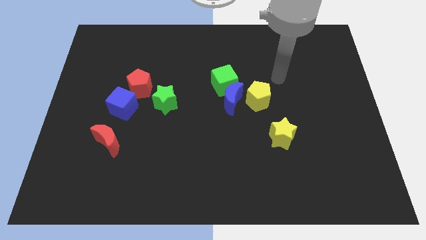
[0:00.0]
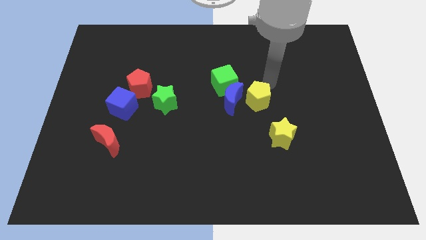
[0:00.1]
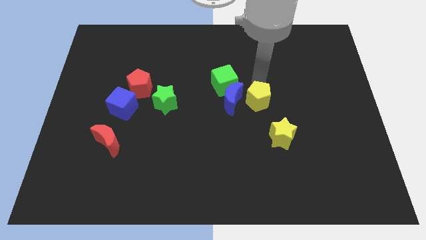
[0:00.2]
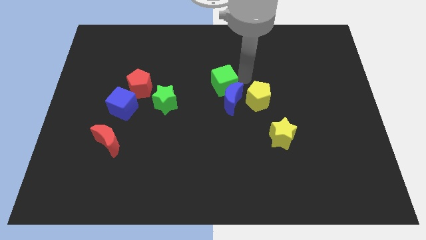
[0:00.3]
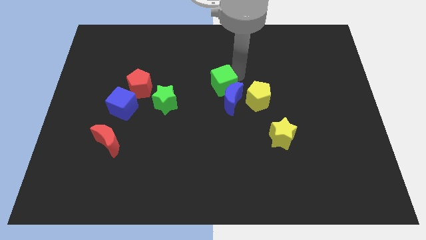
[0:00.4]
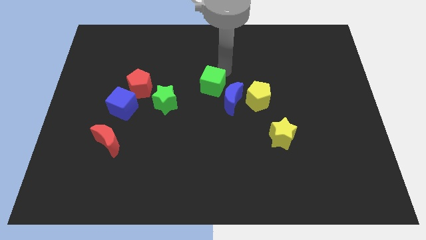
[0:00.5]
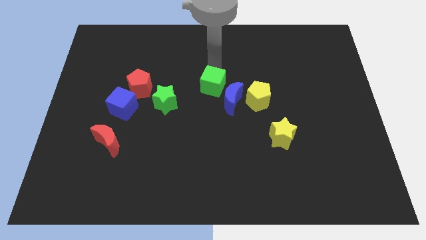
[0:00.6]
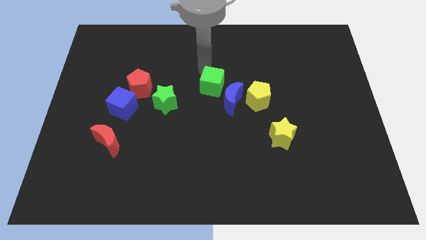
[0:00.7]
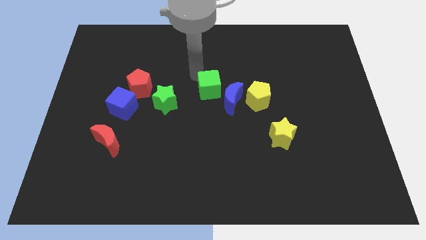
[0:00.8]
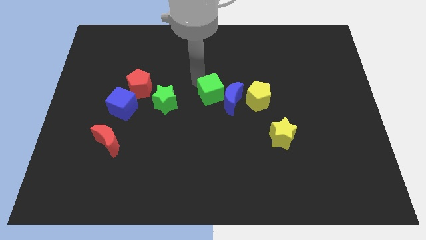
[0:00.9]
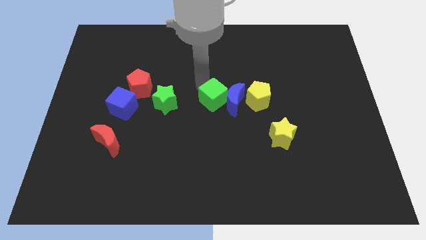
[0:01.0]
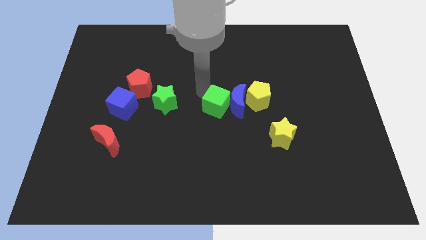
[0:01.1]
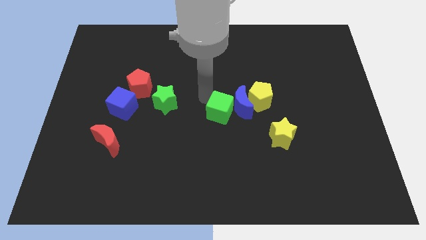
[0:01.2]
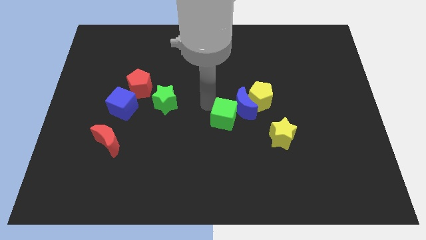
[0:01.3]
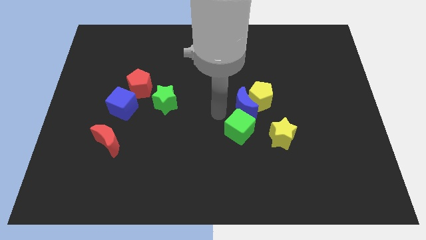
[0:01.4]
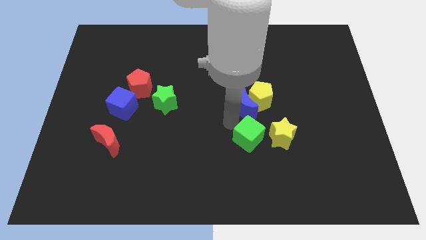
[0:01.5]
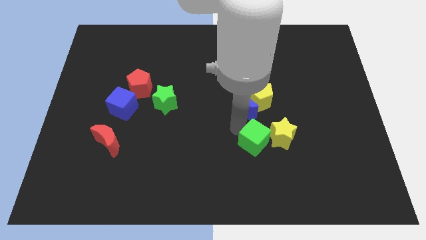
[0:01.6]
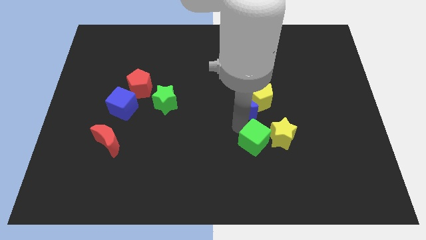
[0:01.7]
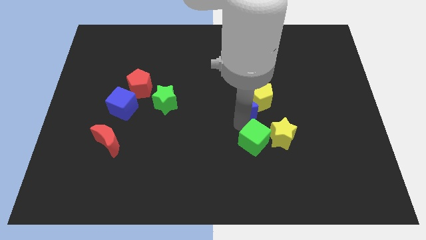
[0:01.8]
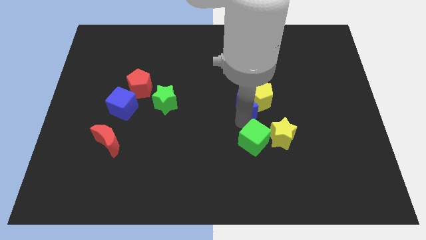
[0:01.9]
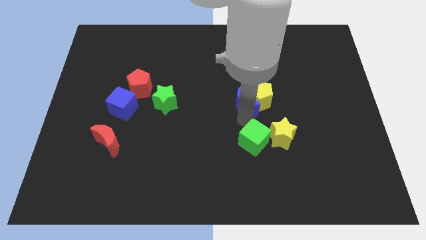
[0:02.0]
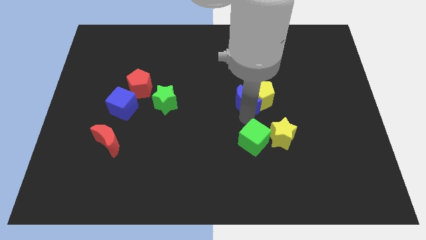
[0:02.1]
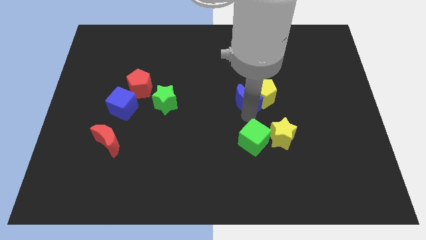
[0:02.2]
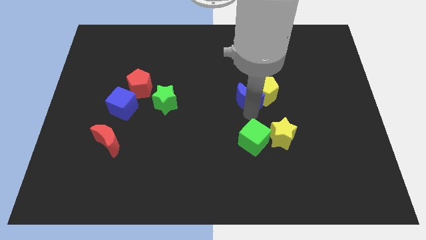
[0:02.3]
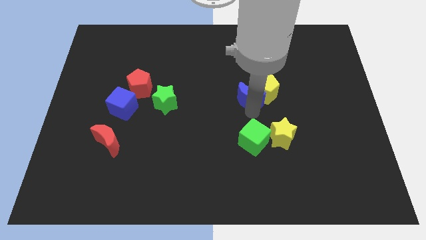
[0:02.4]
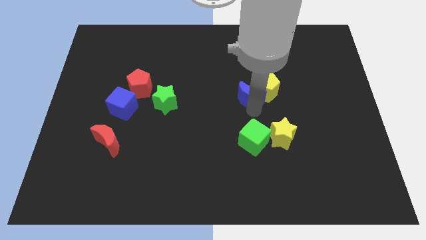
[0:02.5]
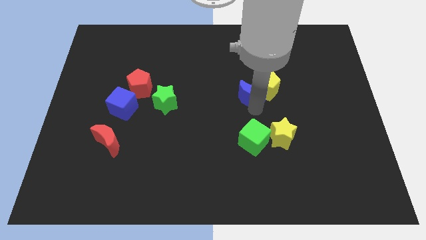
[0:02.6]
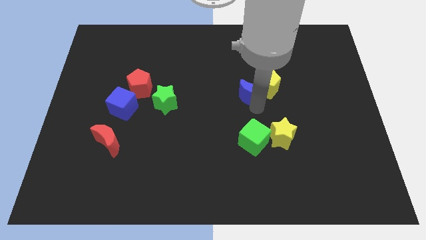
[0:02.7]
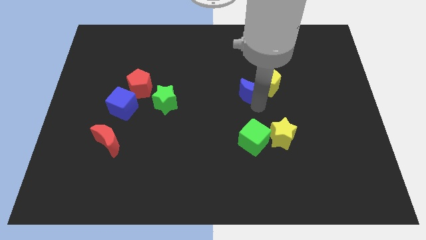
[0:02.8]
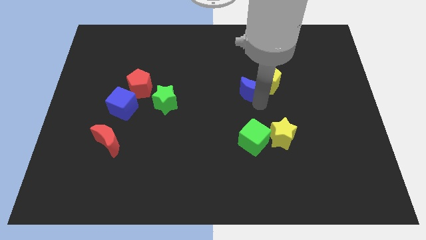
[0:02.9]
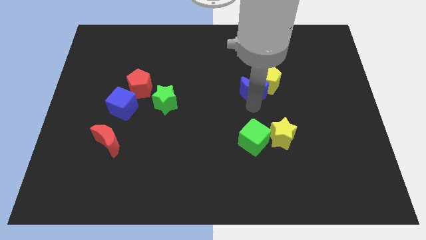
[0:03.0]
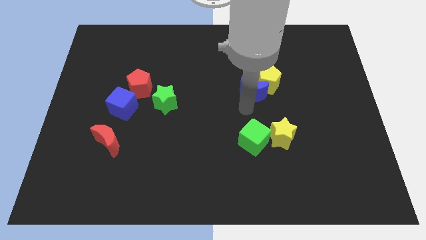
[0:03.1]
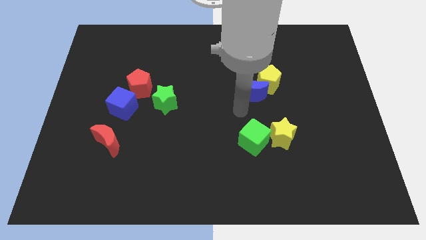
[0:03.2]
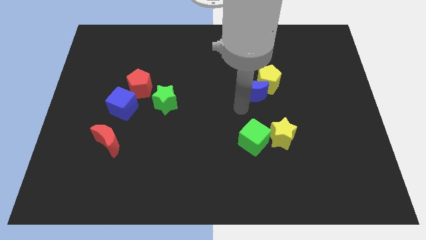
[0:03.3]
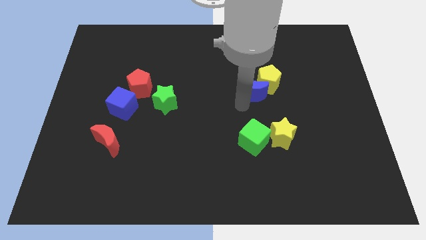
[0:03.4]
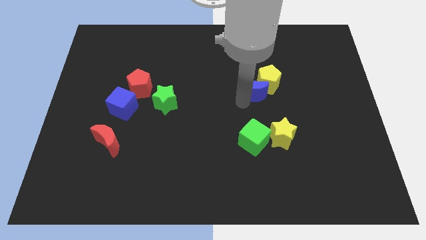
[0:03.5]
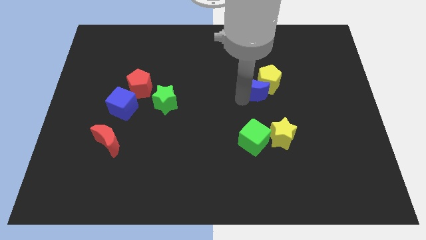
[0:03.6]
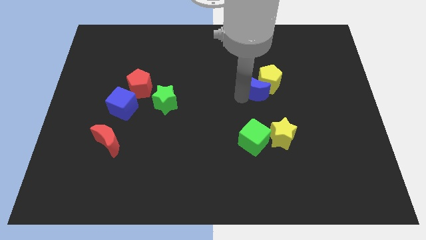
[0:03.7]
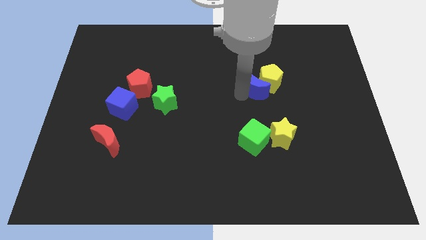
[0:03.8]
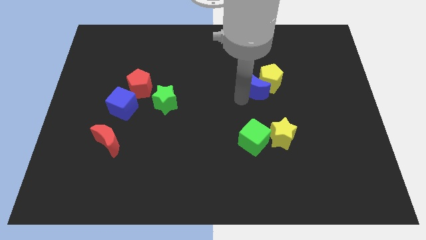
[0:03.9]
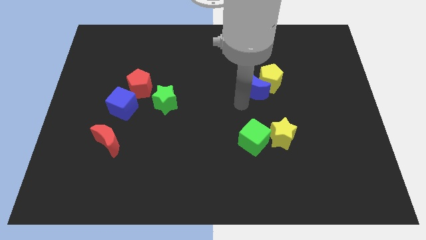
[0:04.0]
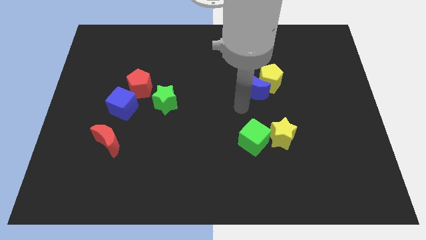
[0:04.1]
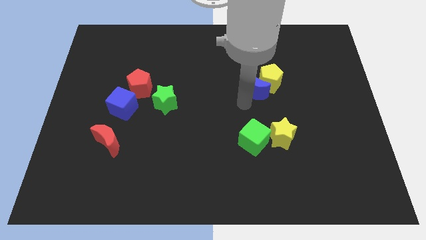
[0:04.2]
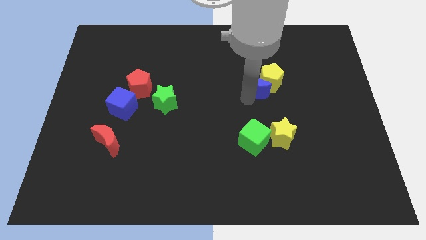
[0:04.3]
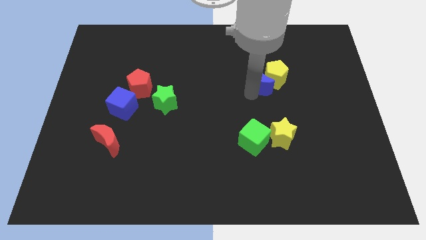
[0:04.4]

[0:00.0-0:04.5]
slightly slide the blue moon up and then right

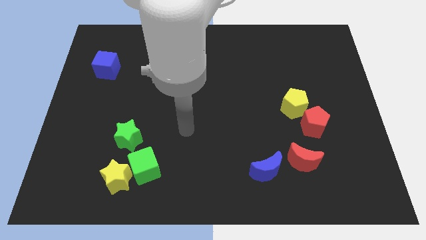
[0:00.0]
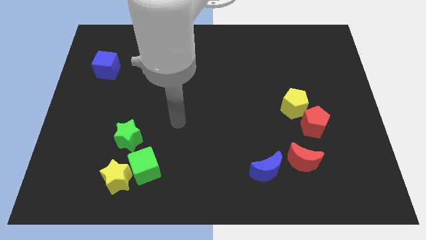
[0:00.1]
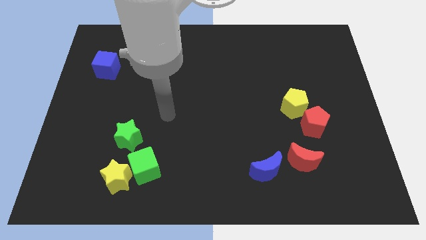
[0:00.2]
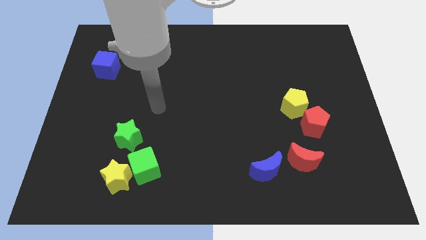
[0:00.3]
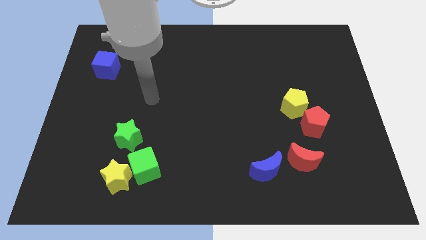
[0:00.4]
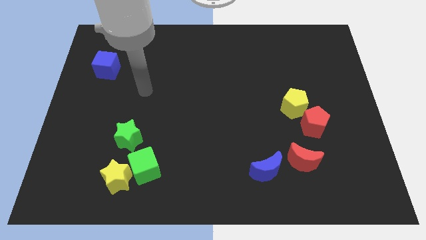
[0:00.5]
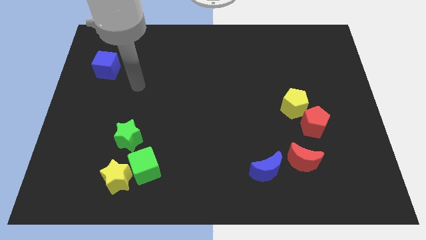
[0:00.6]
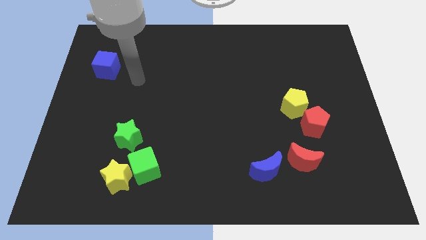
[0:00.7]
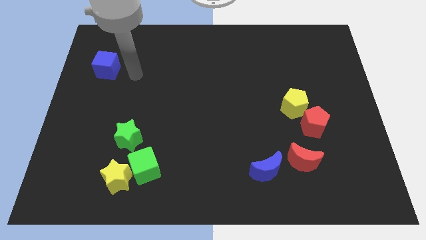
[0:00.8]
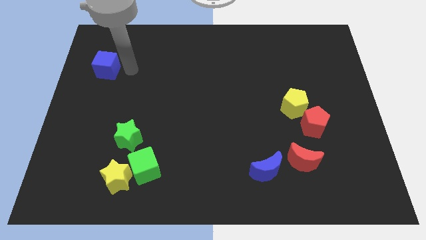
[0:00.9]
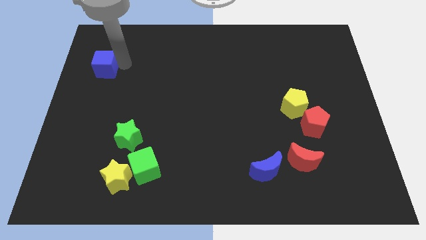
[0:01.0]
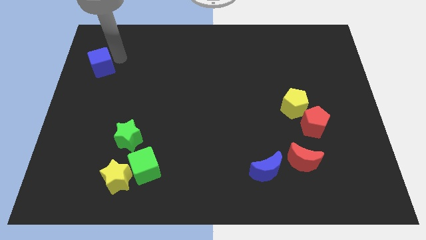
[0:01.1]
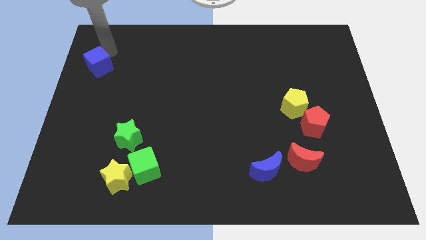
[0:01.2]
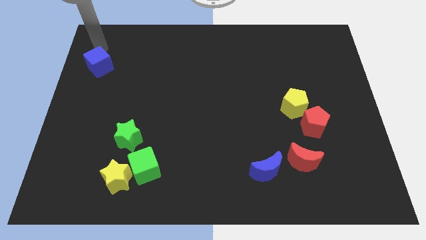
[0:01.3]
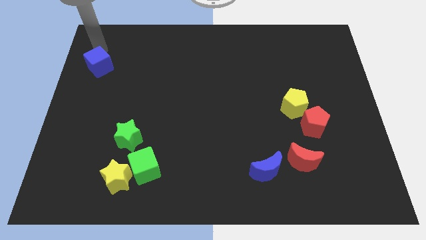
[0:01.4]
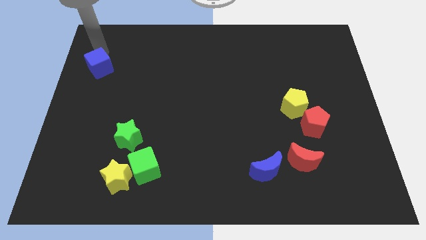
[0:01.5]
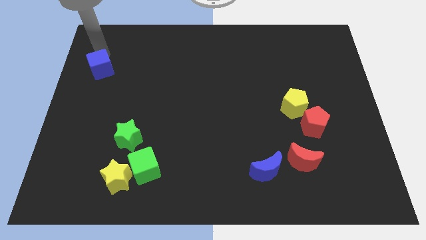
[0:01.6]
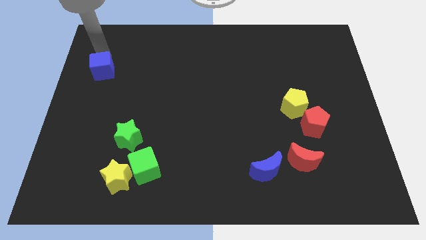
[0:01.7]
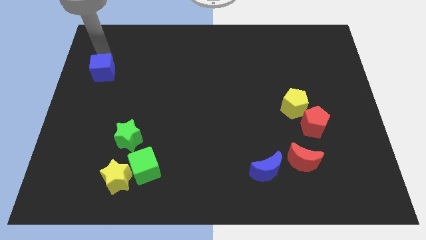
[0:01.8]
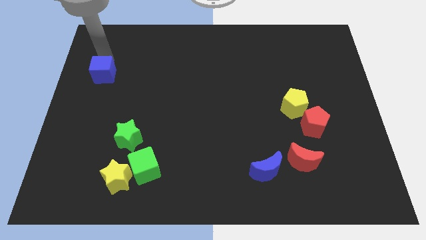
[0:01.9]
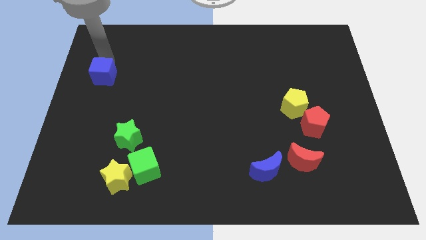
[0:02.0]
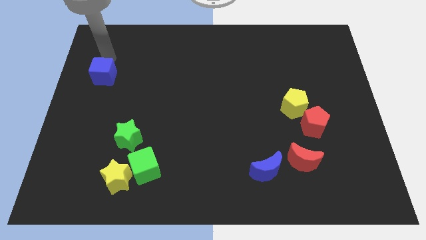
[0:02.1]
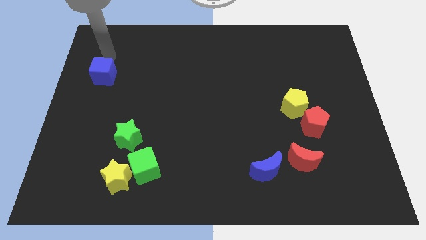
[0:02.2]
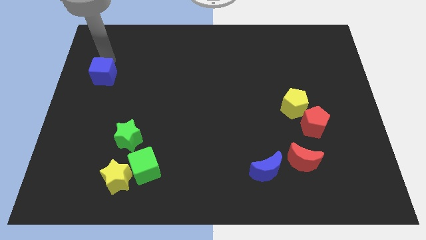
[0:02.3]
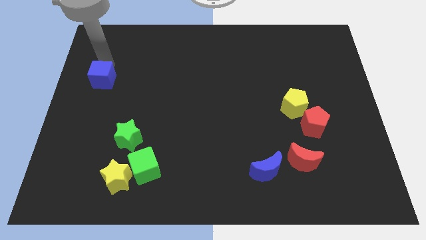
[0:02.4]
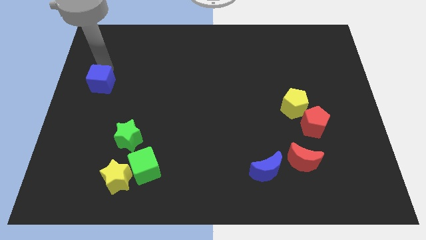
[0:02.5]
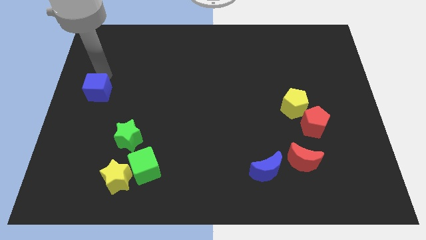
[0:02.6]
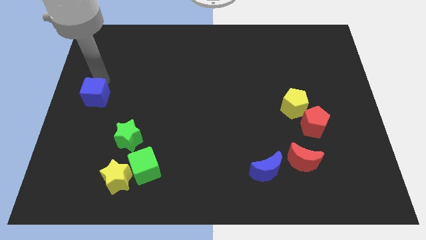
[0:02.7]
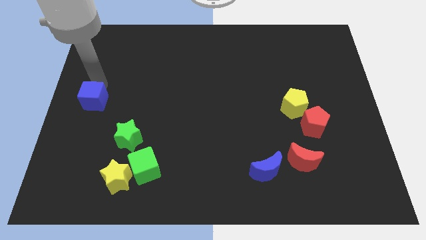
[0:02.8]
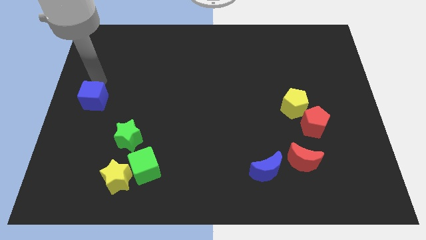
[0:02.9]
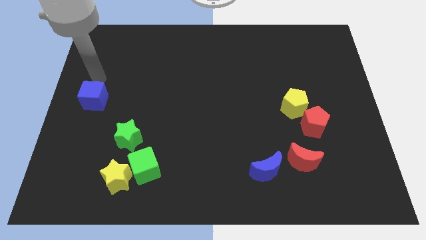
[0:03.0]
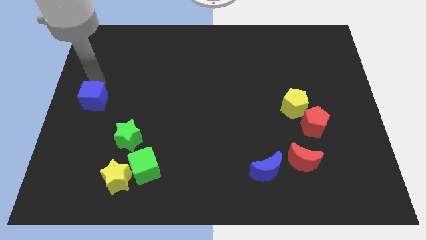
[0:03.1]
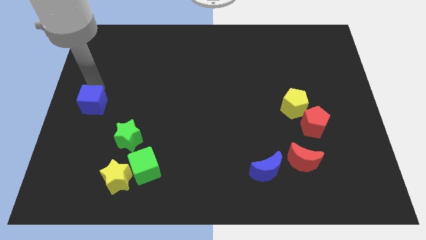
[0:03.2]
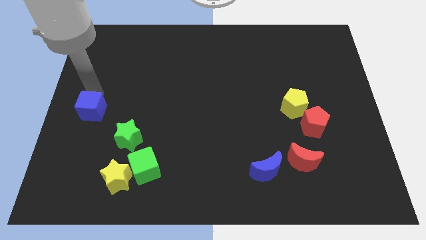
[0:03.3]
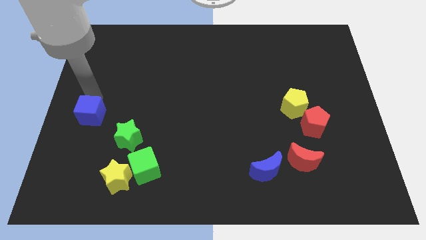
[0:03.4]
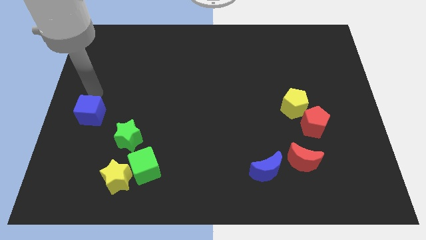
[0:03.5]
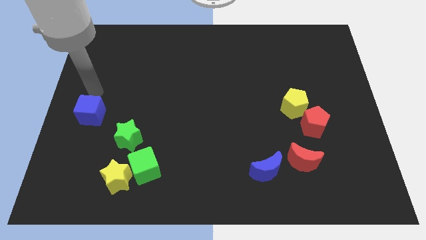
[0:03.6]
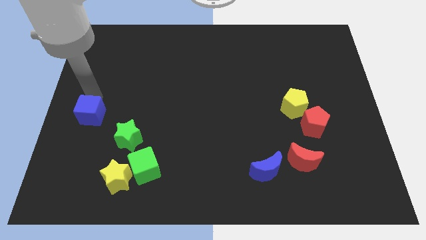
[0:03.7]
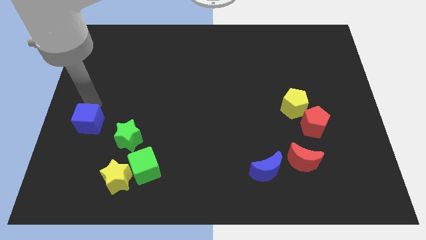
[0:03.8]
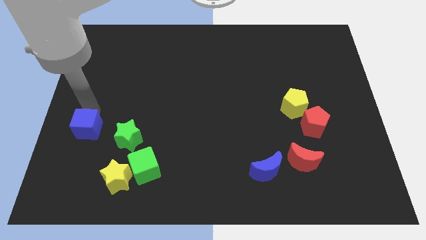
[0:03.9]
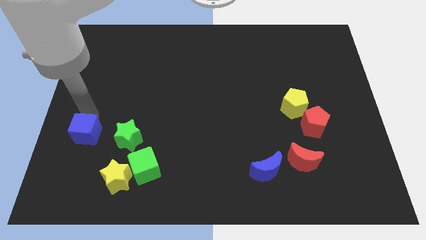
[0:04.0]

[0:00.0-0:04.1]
move the blue cube downwards
